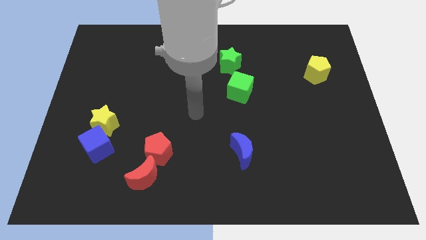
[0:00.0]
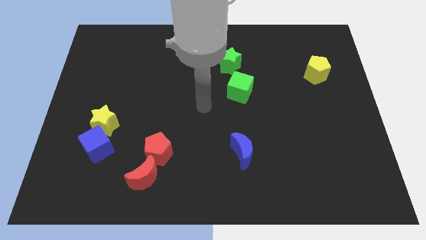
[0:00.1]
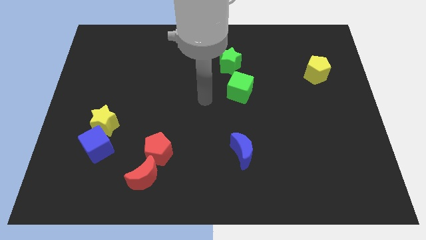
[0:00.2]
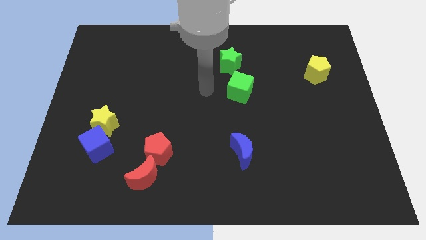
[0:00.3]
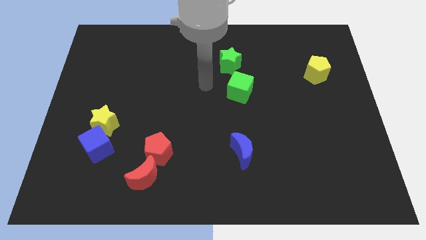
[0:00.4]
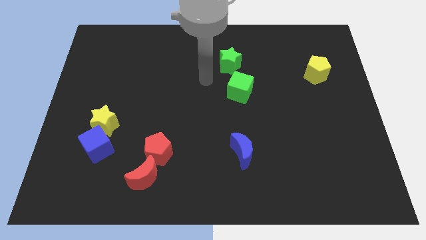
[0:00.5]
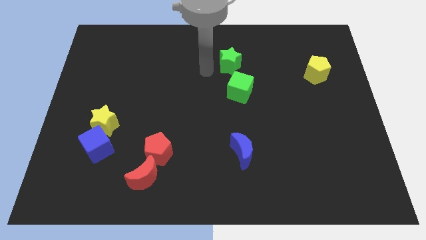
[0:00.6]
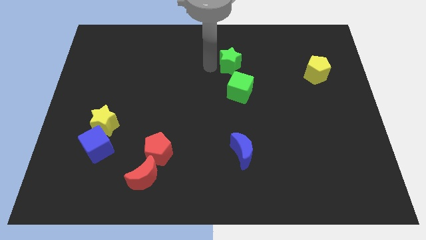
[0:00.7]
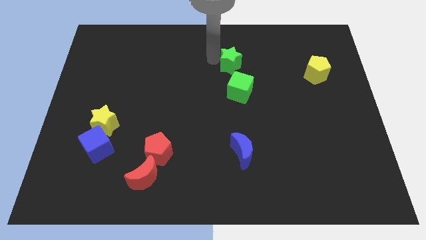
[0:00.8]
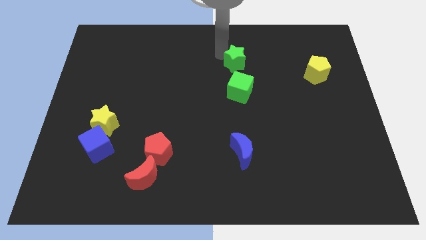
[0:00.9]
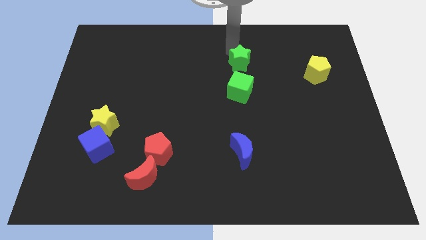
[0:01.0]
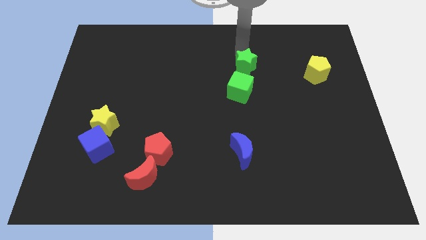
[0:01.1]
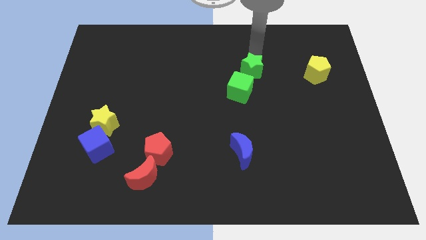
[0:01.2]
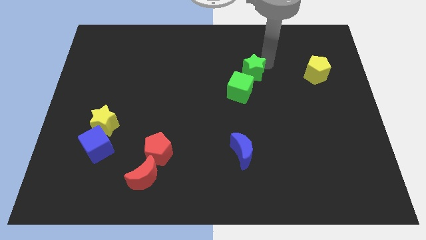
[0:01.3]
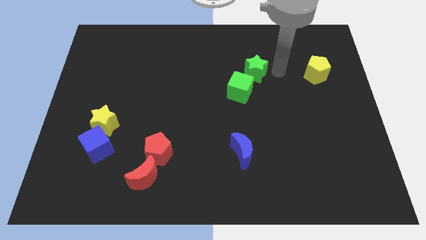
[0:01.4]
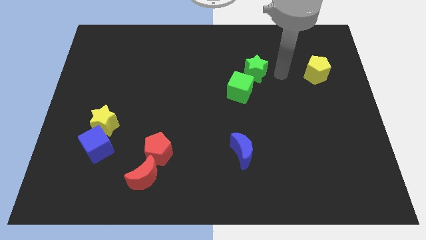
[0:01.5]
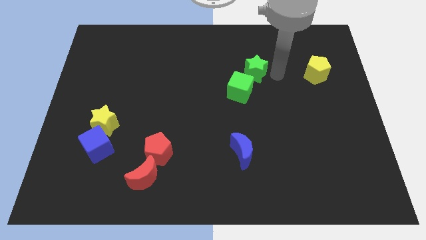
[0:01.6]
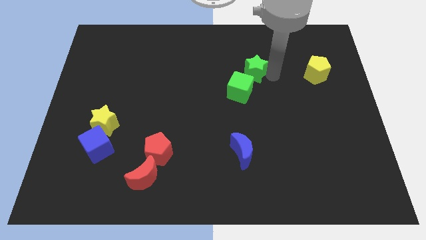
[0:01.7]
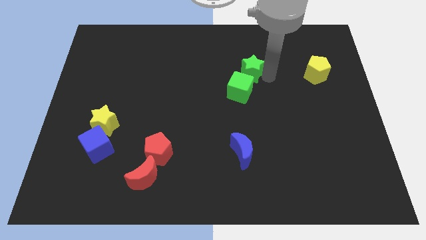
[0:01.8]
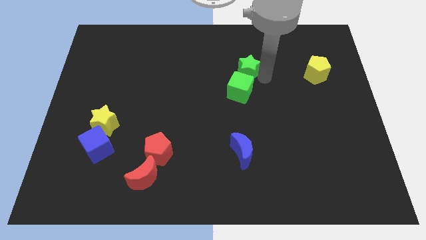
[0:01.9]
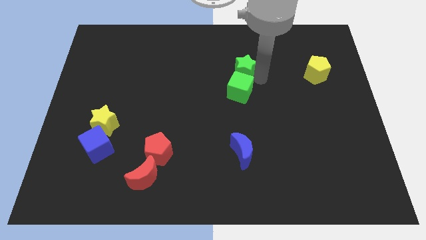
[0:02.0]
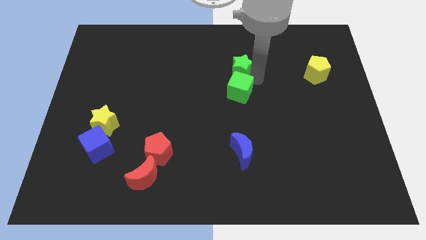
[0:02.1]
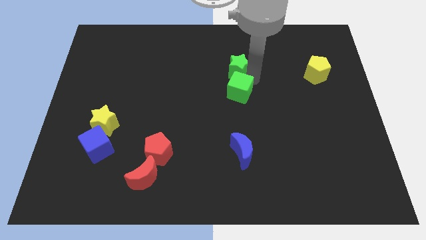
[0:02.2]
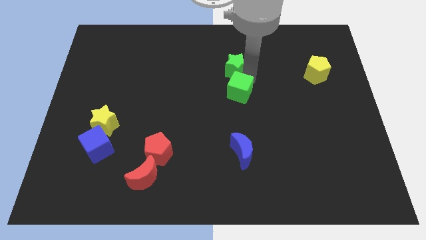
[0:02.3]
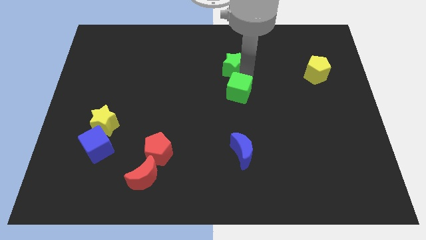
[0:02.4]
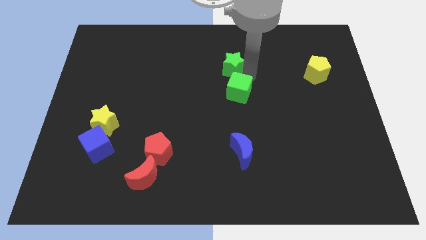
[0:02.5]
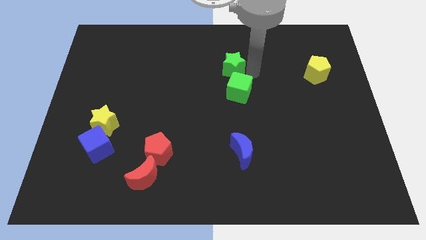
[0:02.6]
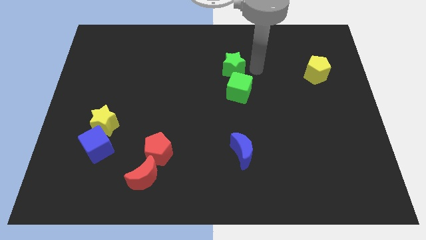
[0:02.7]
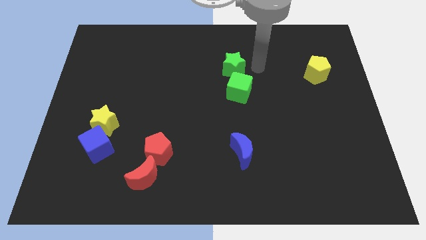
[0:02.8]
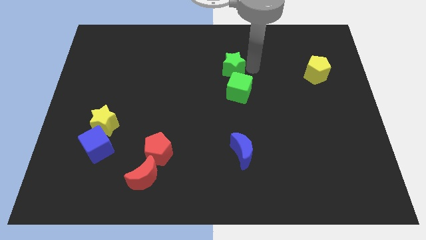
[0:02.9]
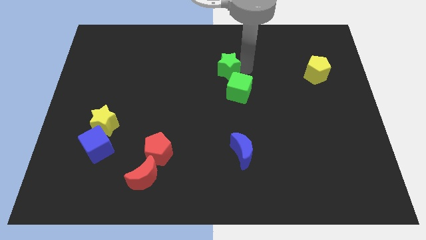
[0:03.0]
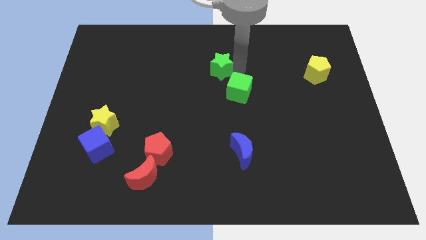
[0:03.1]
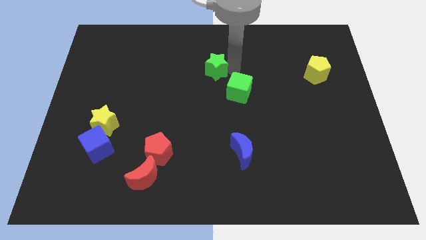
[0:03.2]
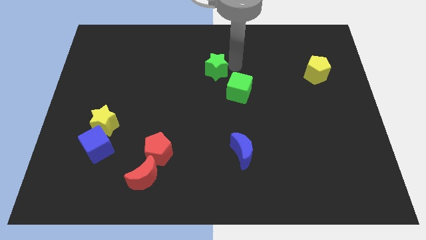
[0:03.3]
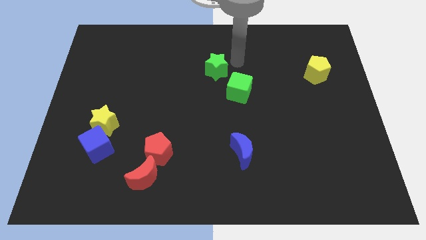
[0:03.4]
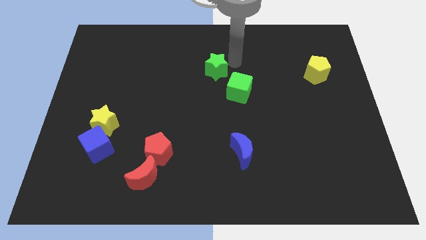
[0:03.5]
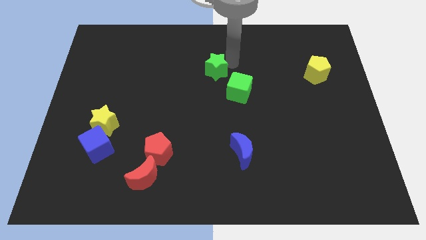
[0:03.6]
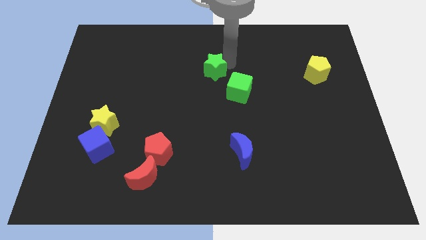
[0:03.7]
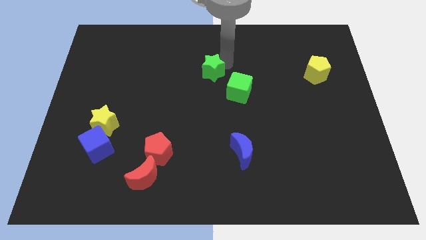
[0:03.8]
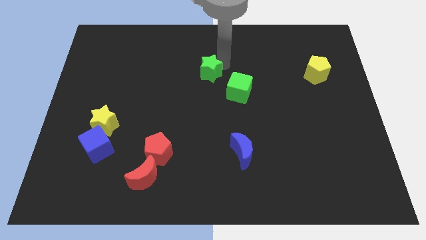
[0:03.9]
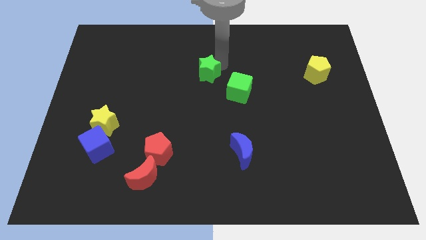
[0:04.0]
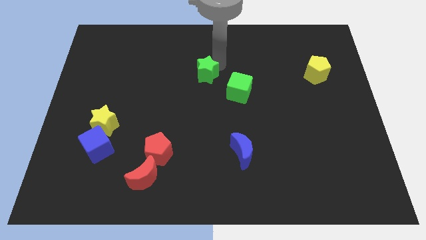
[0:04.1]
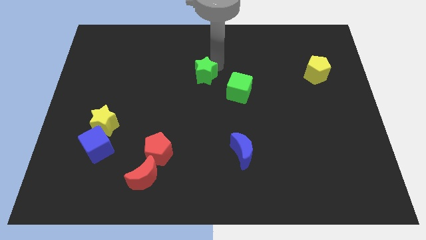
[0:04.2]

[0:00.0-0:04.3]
push the green star slightly down and to the left

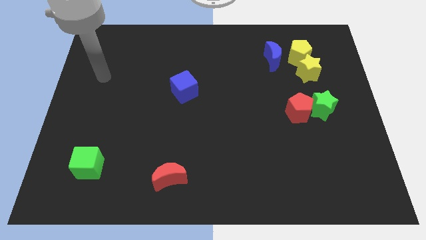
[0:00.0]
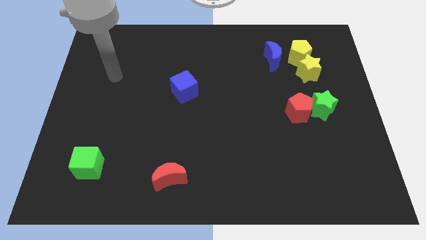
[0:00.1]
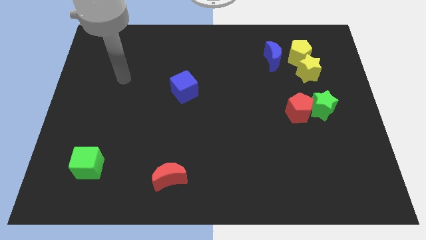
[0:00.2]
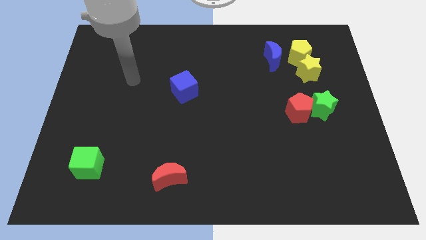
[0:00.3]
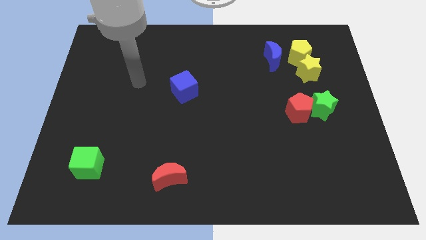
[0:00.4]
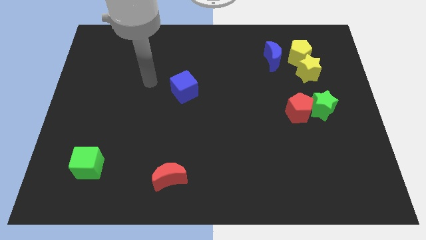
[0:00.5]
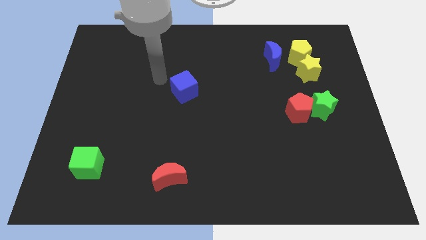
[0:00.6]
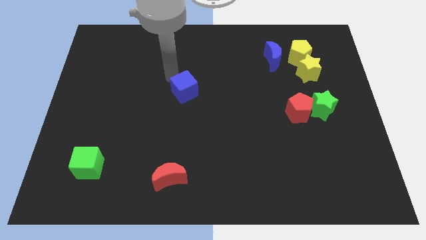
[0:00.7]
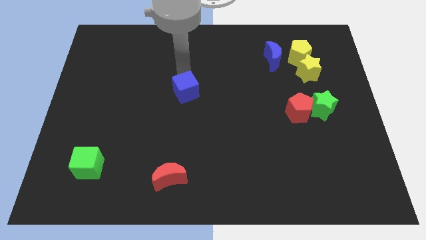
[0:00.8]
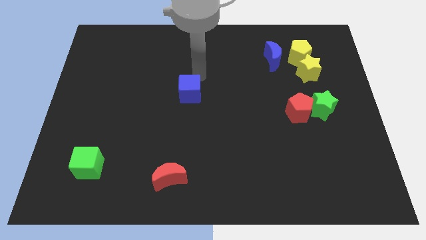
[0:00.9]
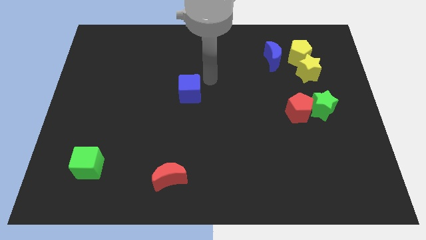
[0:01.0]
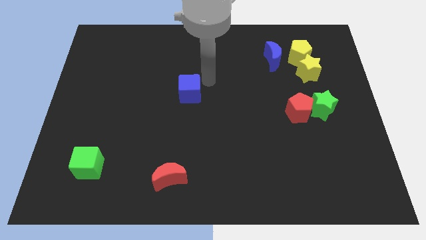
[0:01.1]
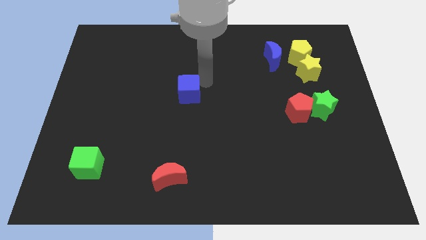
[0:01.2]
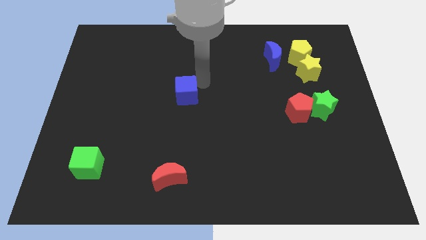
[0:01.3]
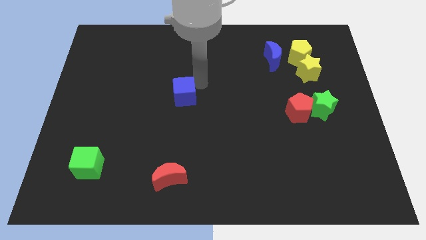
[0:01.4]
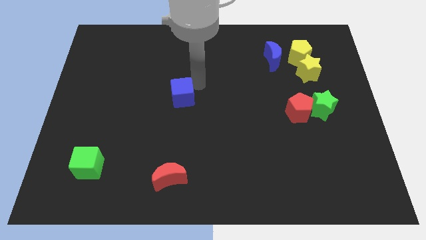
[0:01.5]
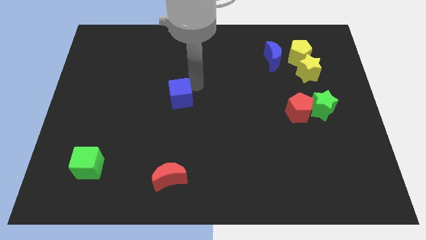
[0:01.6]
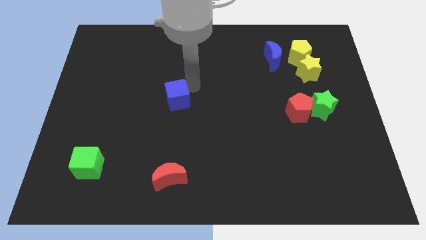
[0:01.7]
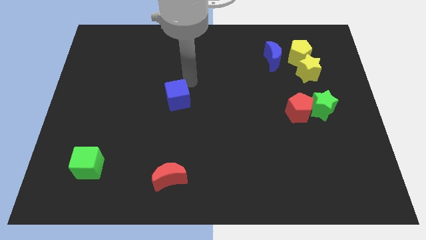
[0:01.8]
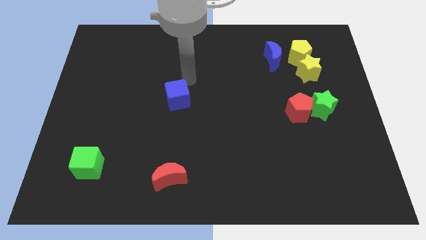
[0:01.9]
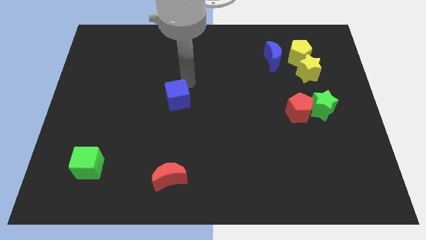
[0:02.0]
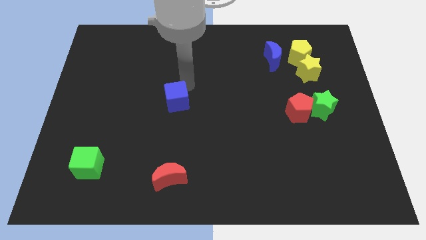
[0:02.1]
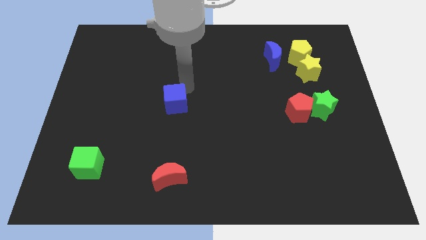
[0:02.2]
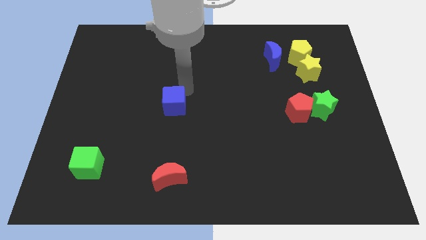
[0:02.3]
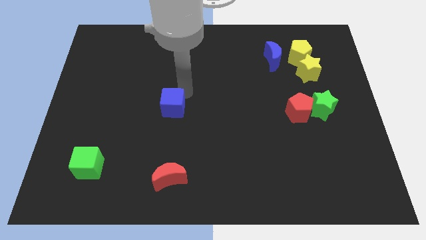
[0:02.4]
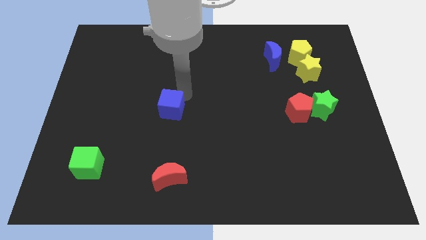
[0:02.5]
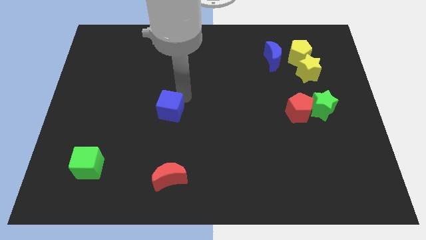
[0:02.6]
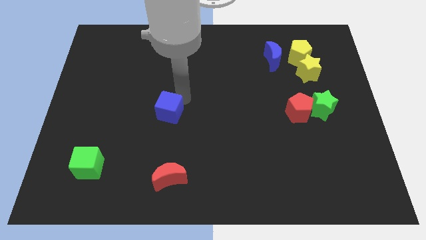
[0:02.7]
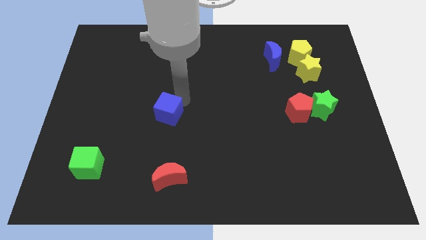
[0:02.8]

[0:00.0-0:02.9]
move the blue cube a little bit downwards and then left

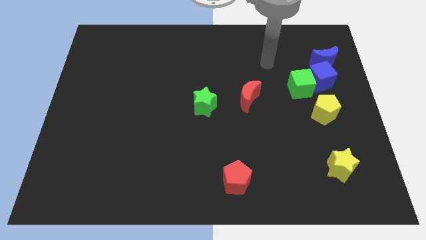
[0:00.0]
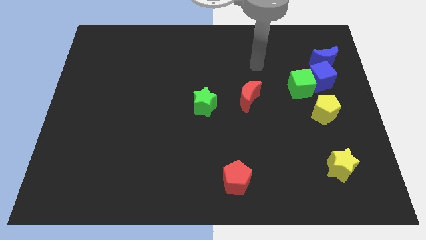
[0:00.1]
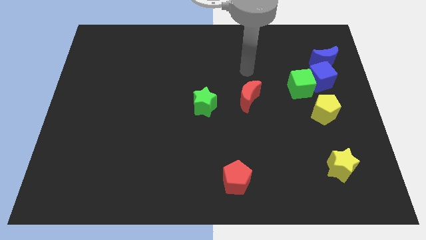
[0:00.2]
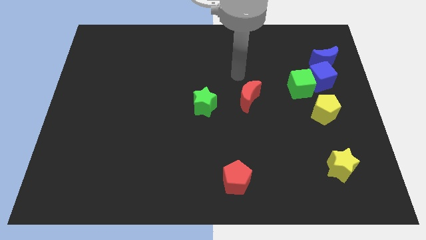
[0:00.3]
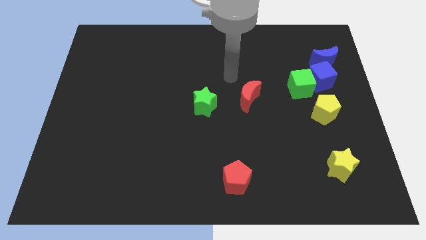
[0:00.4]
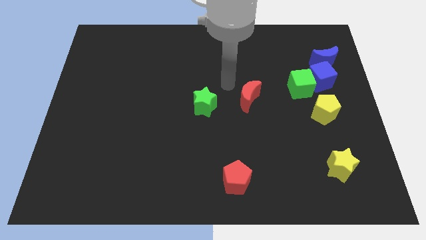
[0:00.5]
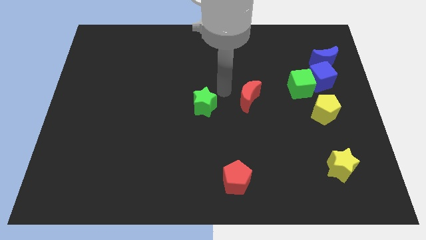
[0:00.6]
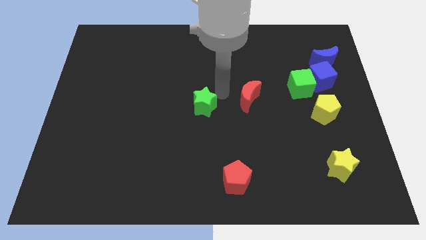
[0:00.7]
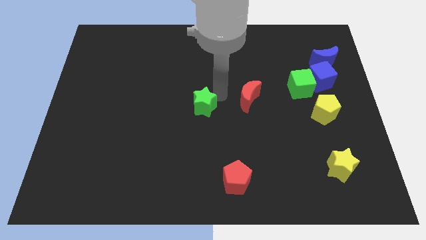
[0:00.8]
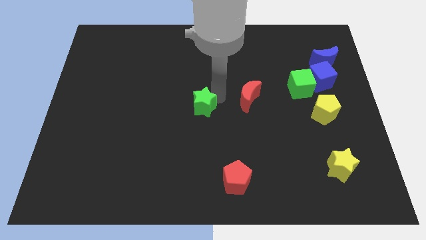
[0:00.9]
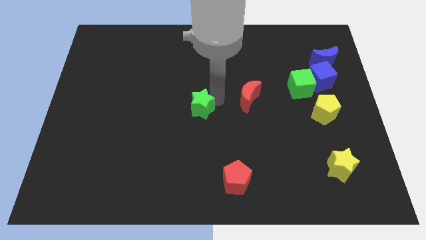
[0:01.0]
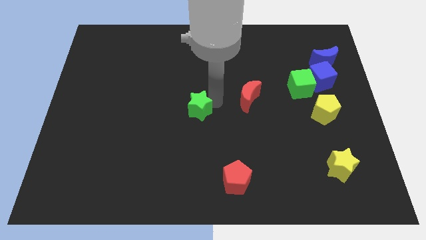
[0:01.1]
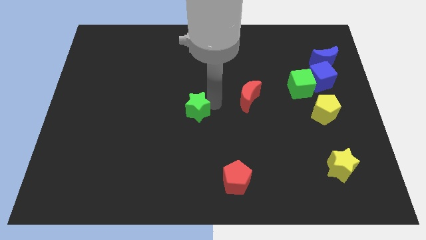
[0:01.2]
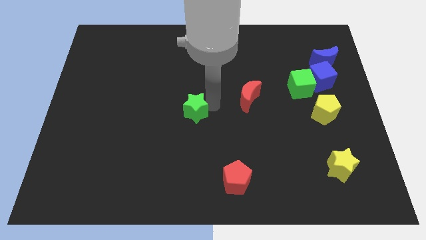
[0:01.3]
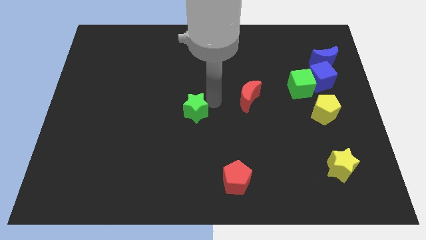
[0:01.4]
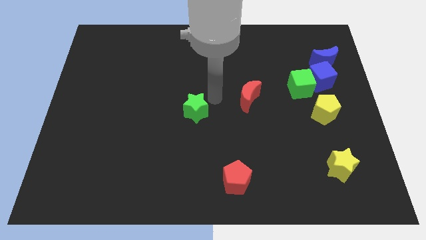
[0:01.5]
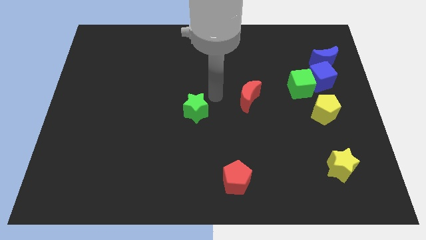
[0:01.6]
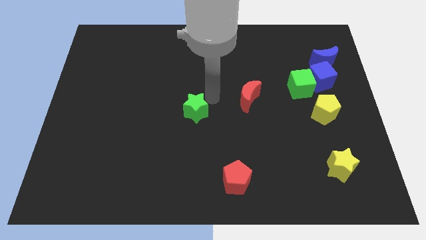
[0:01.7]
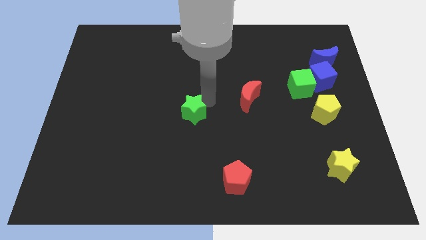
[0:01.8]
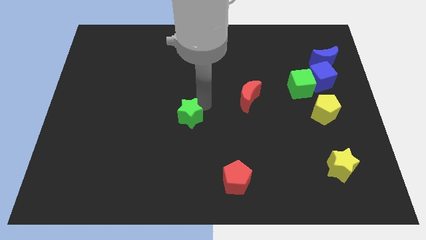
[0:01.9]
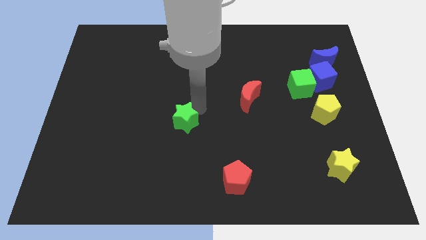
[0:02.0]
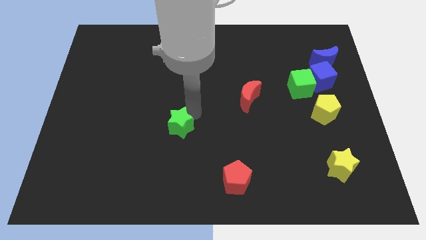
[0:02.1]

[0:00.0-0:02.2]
slightly slide the green star downwards and left diagonally
